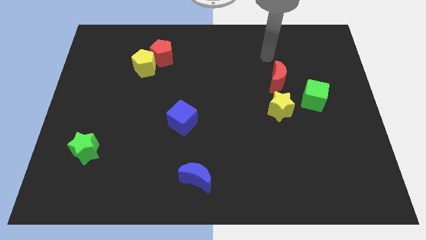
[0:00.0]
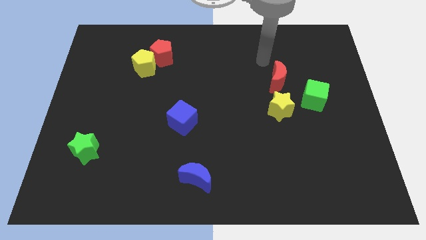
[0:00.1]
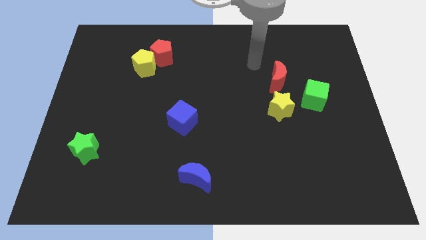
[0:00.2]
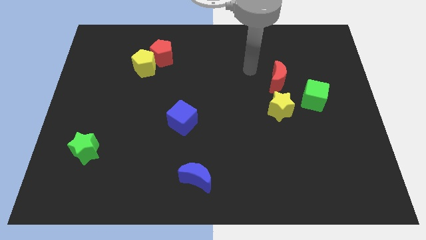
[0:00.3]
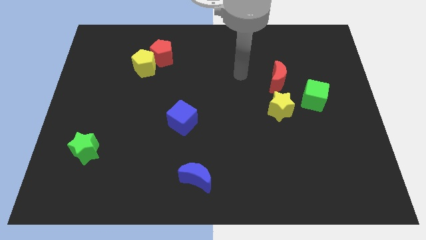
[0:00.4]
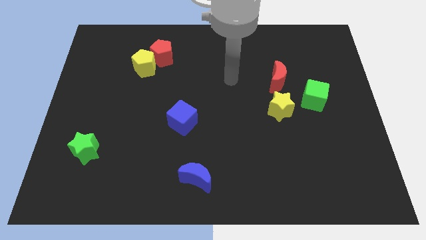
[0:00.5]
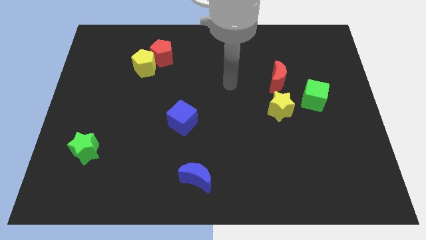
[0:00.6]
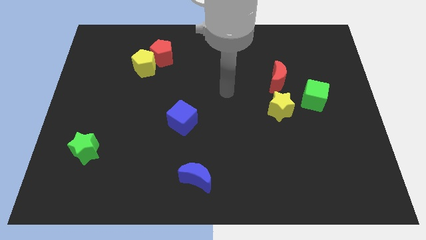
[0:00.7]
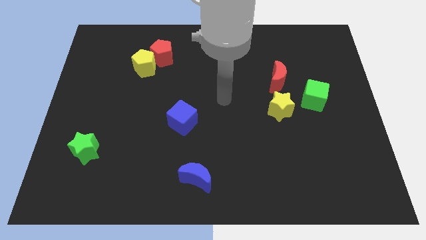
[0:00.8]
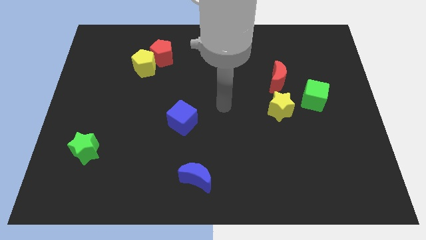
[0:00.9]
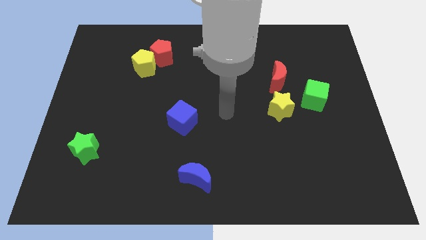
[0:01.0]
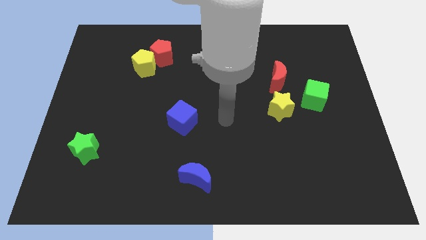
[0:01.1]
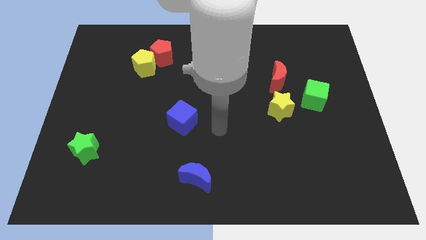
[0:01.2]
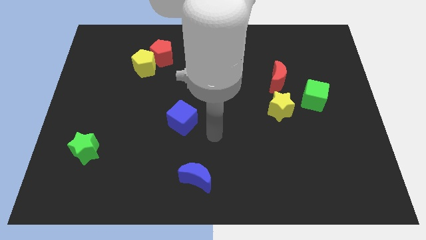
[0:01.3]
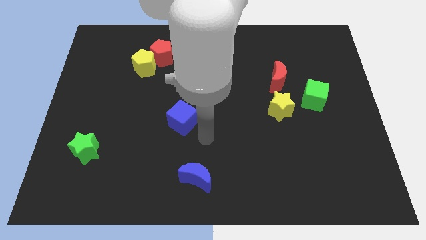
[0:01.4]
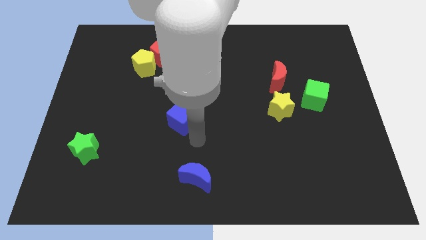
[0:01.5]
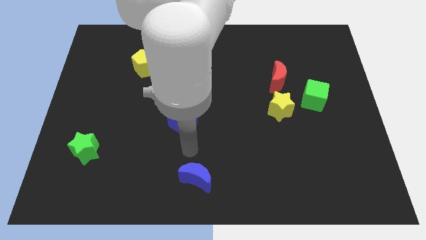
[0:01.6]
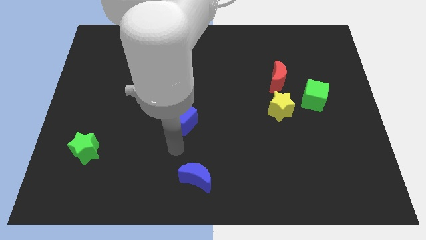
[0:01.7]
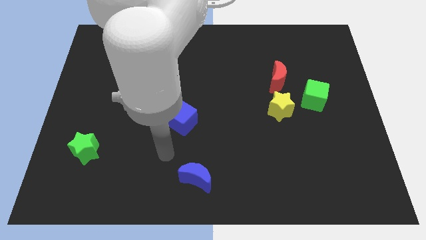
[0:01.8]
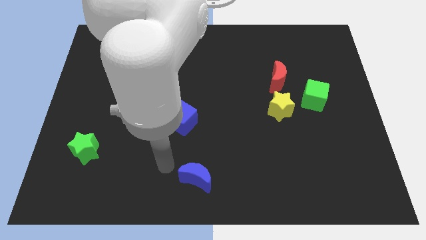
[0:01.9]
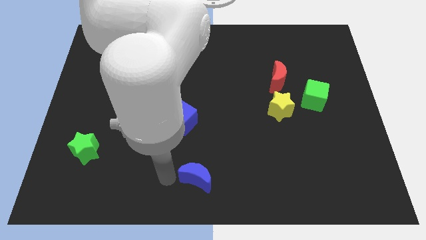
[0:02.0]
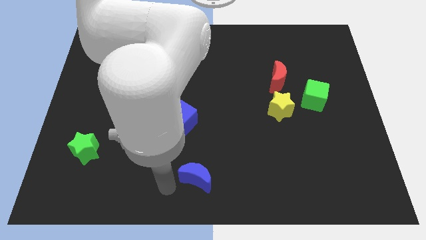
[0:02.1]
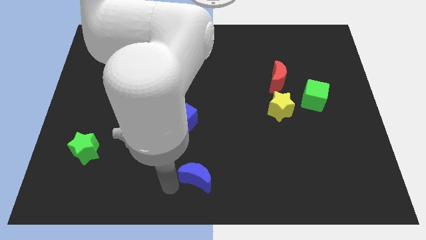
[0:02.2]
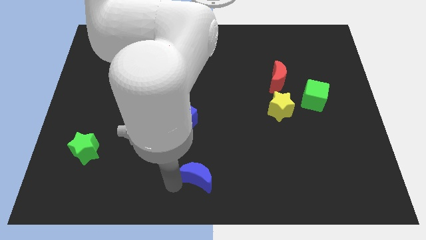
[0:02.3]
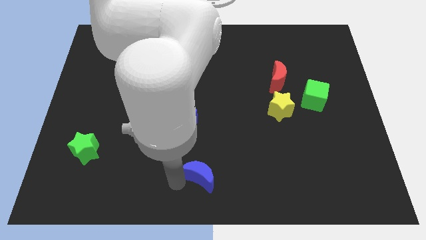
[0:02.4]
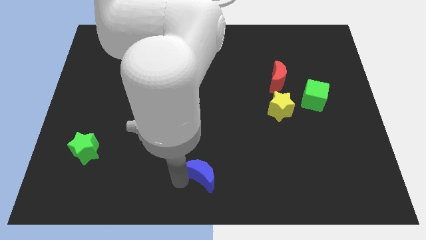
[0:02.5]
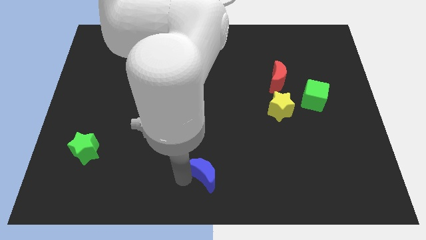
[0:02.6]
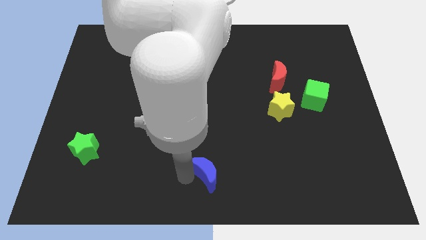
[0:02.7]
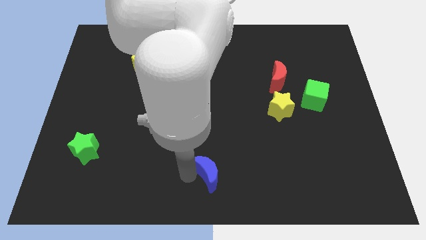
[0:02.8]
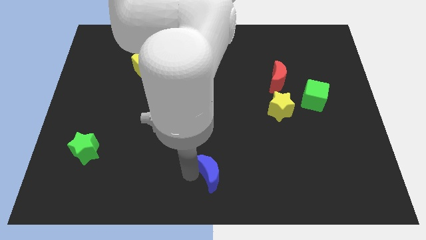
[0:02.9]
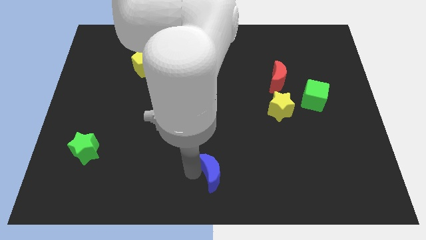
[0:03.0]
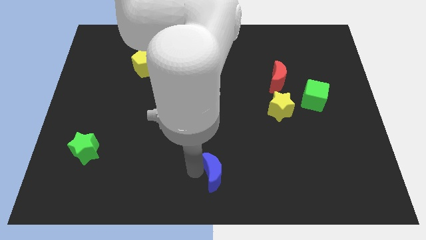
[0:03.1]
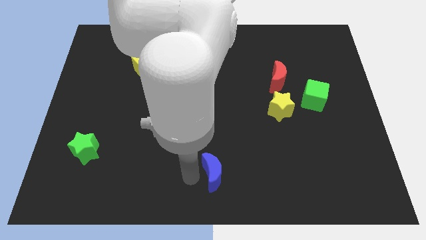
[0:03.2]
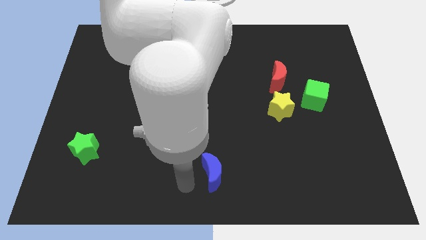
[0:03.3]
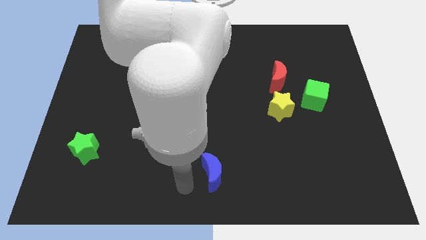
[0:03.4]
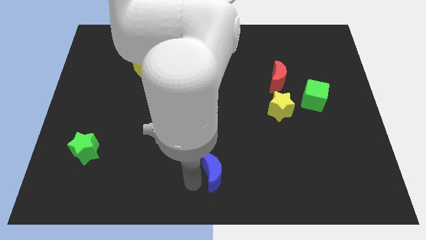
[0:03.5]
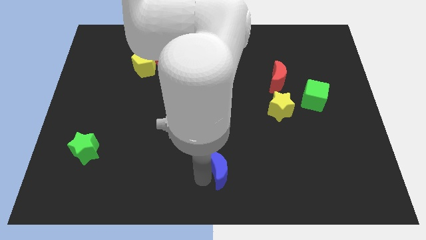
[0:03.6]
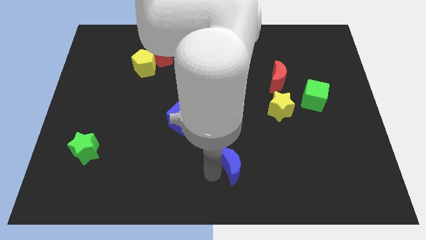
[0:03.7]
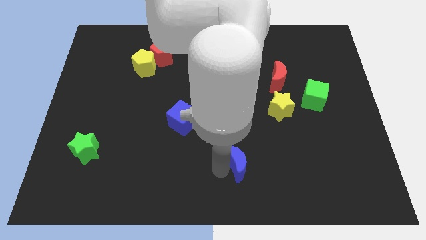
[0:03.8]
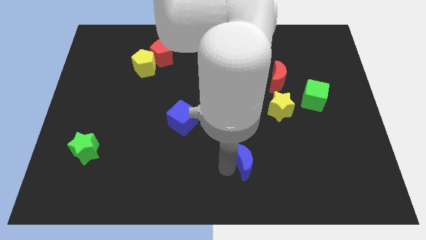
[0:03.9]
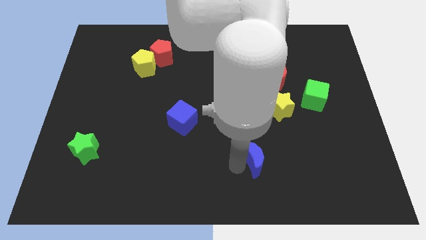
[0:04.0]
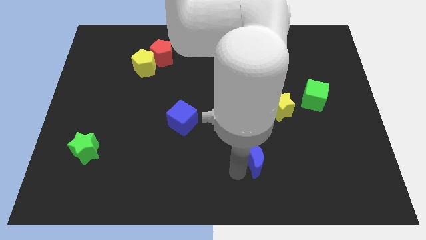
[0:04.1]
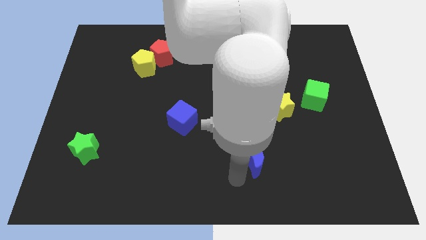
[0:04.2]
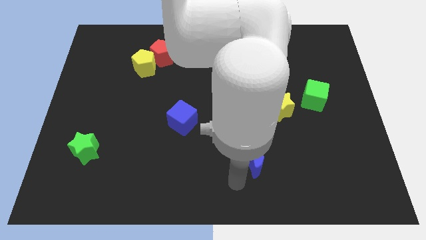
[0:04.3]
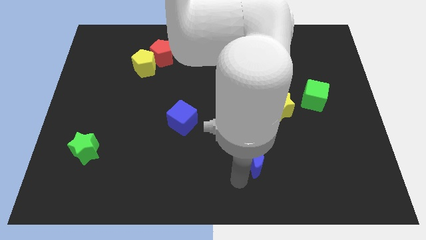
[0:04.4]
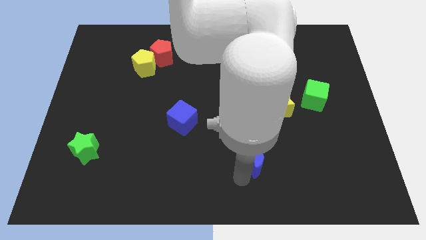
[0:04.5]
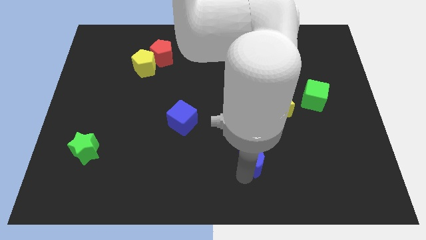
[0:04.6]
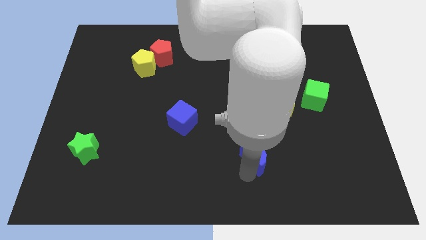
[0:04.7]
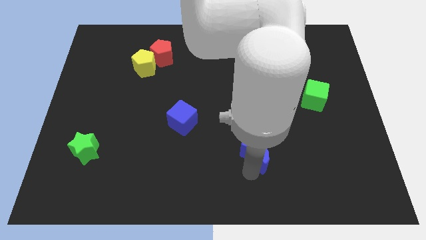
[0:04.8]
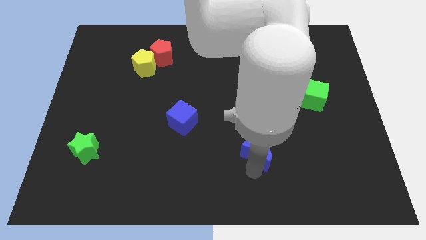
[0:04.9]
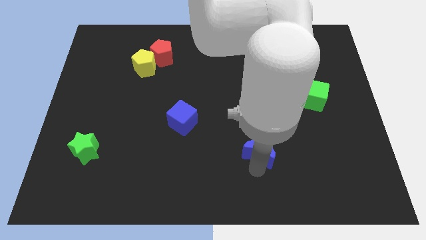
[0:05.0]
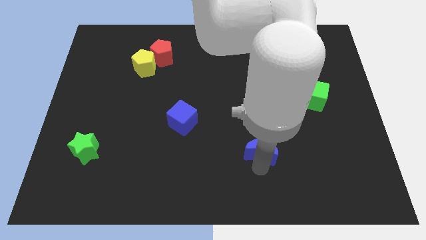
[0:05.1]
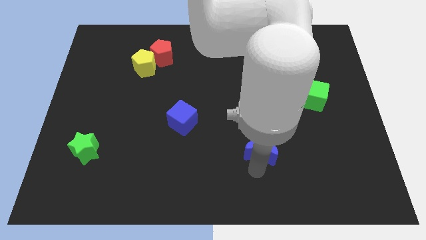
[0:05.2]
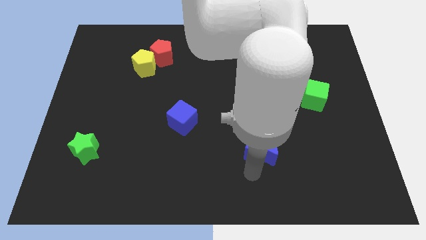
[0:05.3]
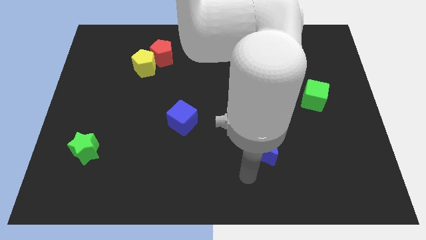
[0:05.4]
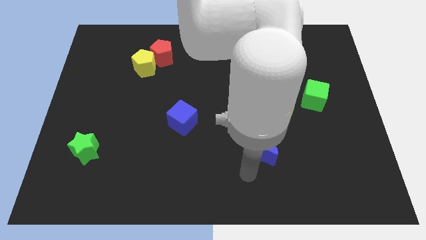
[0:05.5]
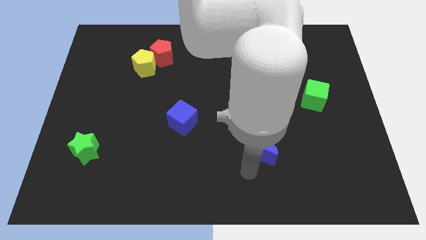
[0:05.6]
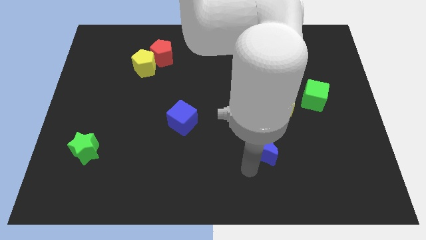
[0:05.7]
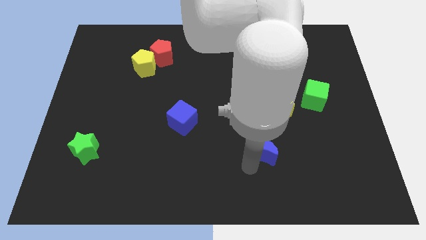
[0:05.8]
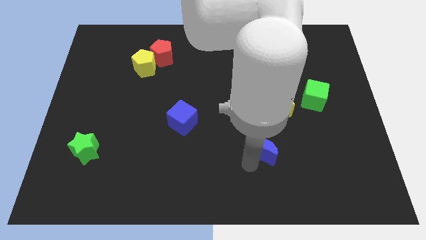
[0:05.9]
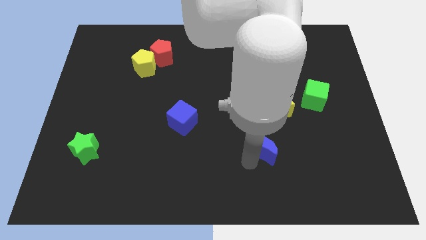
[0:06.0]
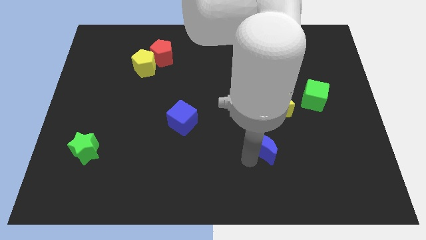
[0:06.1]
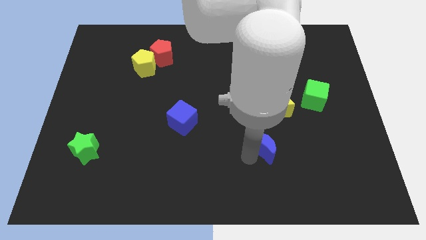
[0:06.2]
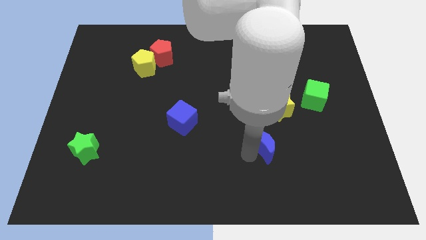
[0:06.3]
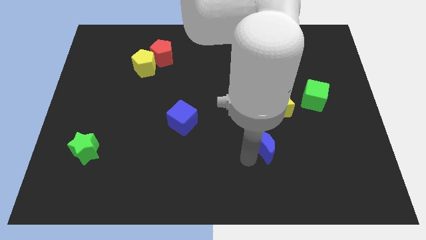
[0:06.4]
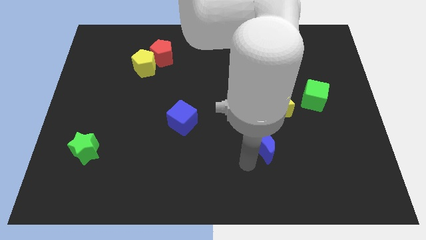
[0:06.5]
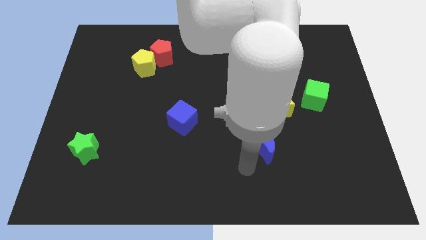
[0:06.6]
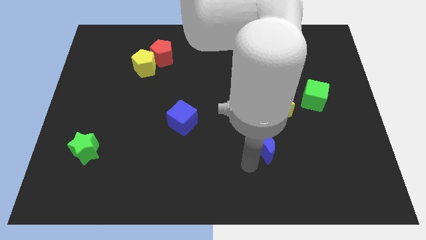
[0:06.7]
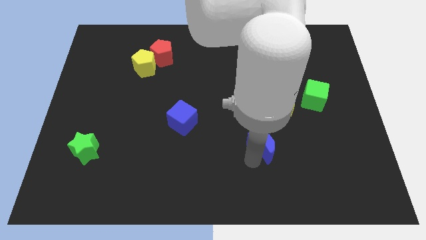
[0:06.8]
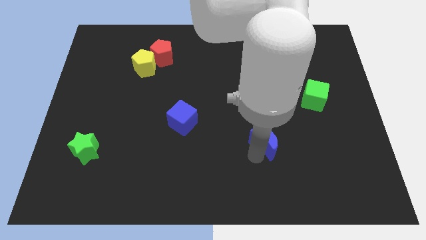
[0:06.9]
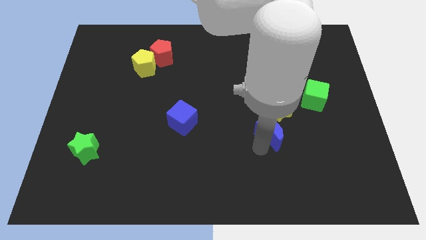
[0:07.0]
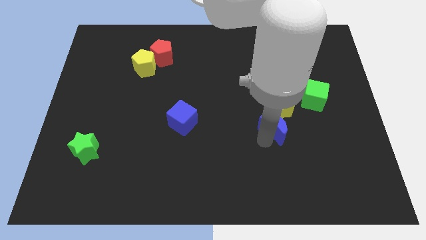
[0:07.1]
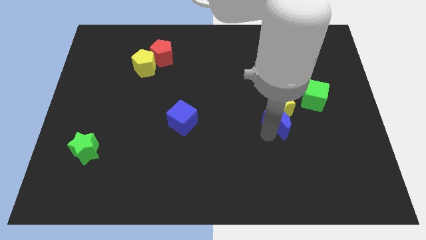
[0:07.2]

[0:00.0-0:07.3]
slide the blue moon diagonally down and to the left of the green cube

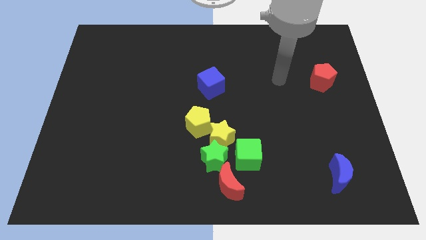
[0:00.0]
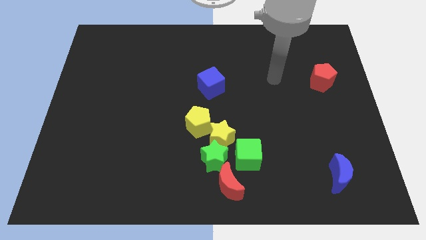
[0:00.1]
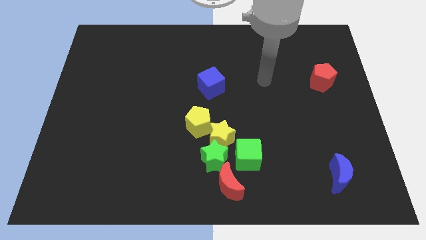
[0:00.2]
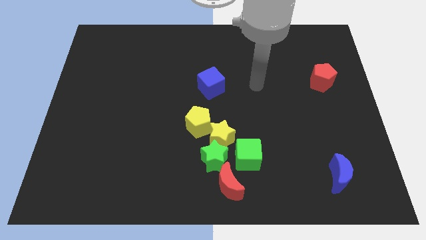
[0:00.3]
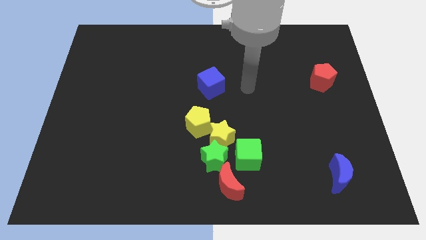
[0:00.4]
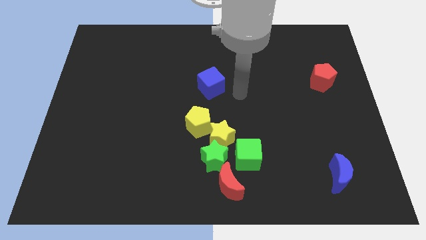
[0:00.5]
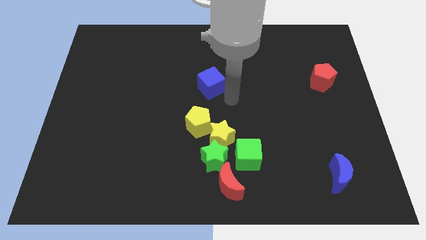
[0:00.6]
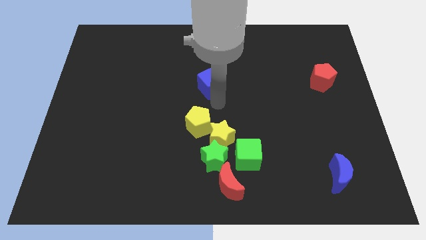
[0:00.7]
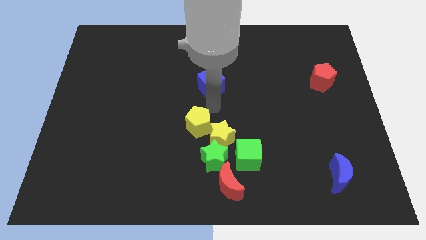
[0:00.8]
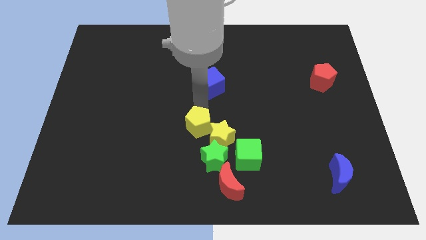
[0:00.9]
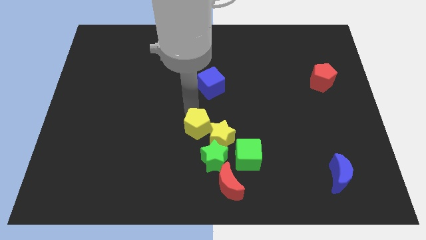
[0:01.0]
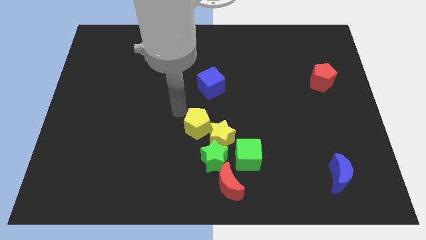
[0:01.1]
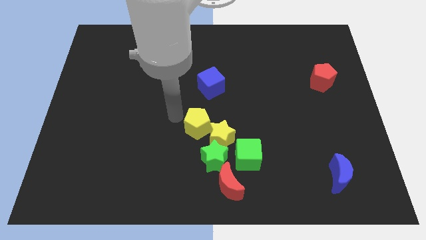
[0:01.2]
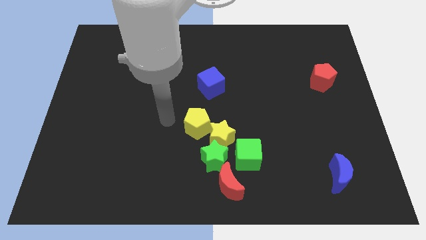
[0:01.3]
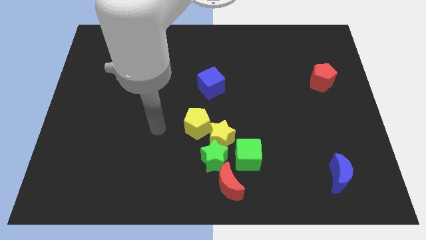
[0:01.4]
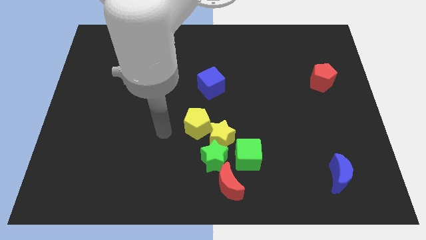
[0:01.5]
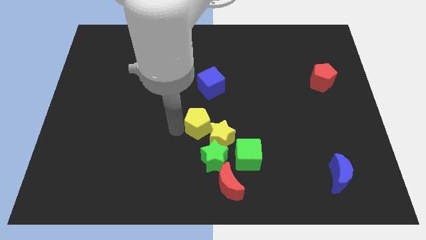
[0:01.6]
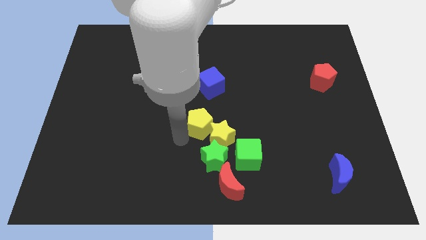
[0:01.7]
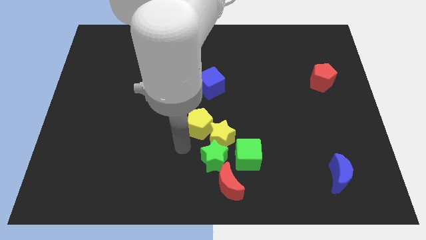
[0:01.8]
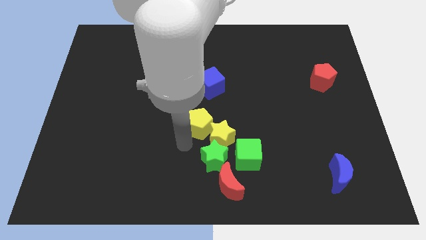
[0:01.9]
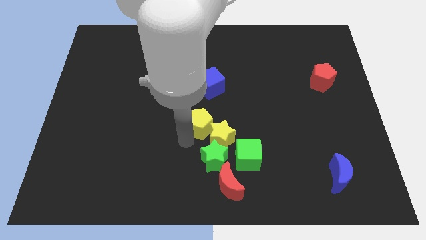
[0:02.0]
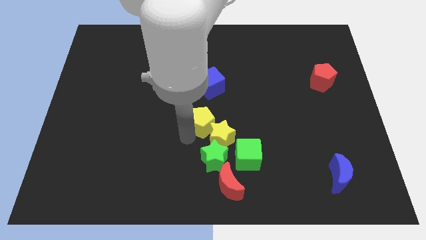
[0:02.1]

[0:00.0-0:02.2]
move the yellow pentagon above the yellow star
